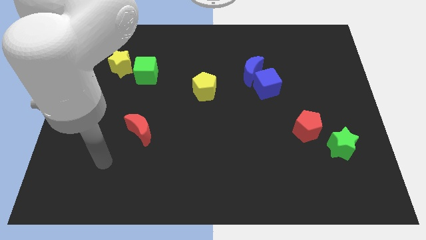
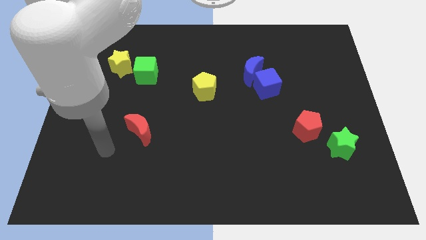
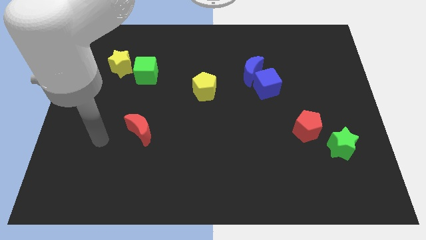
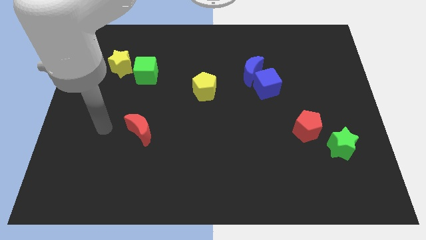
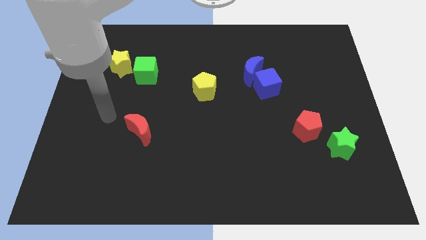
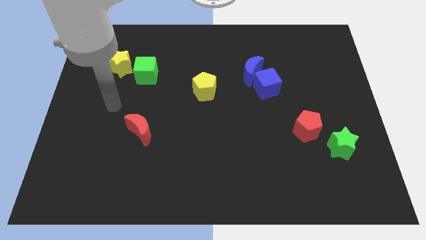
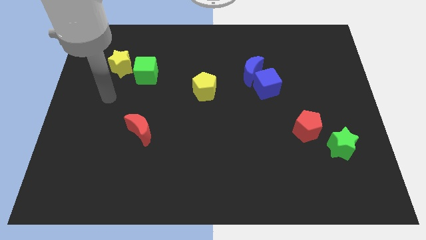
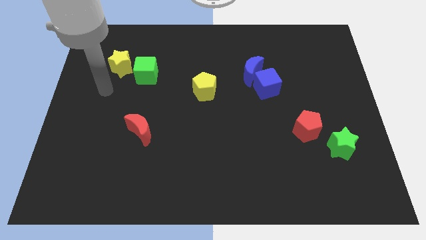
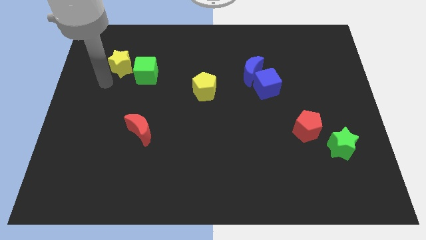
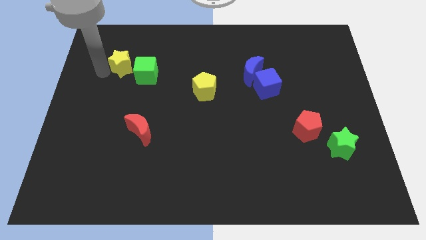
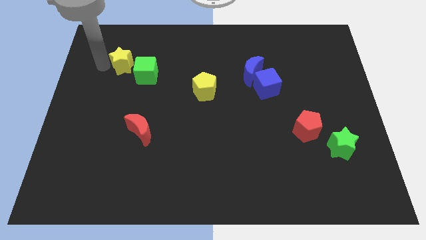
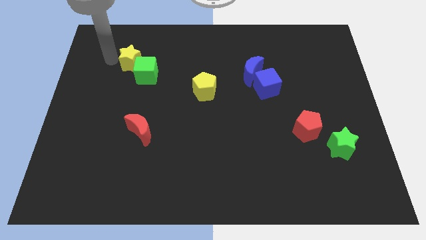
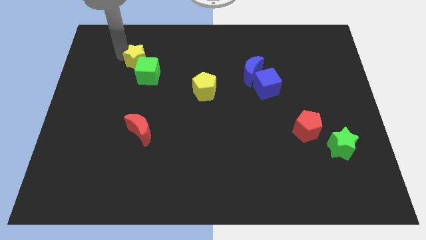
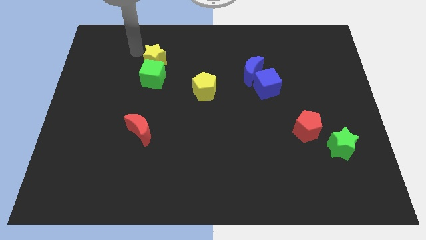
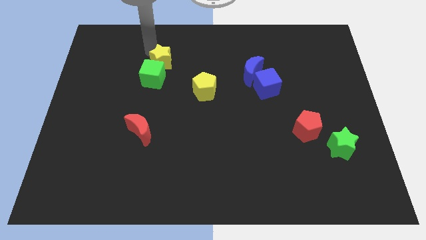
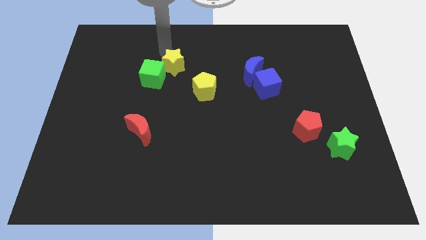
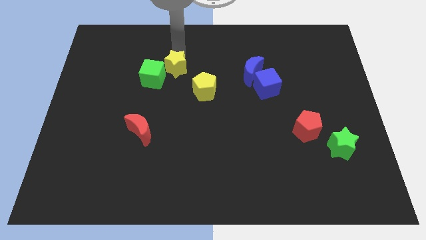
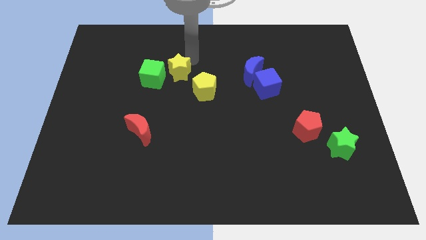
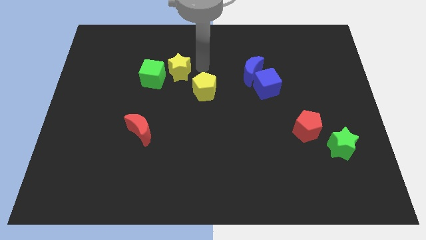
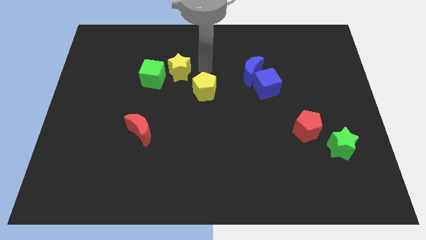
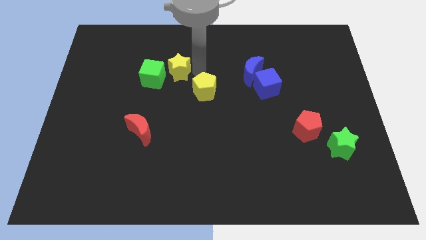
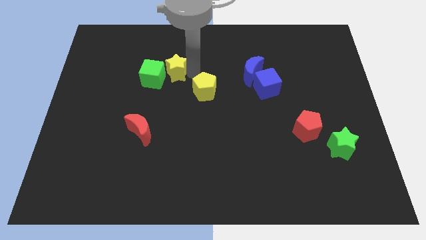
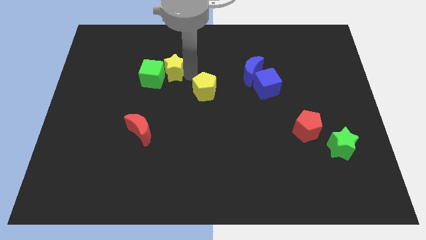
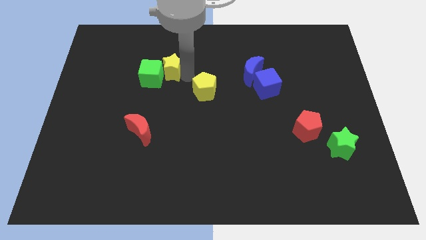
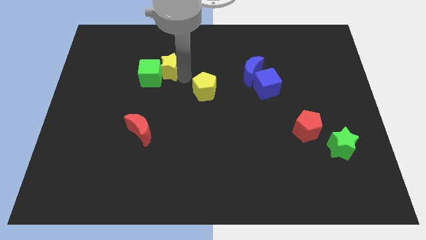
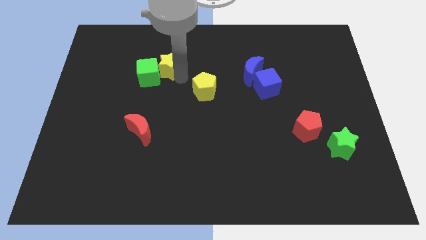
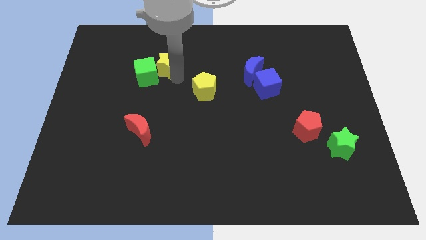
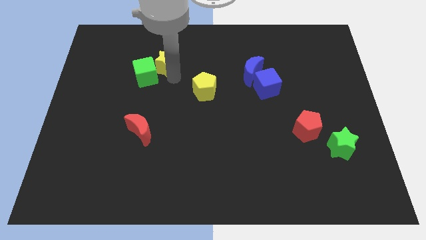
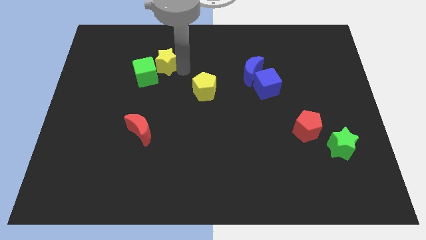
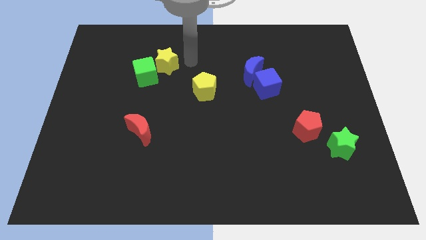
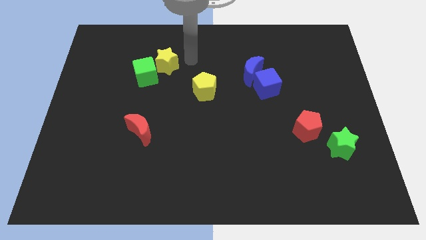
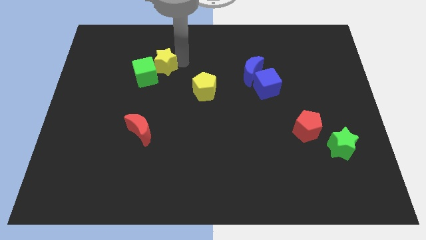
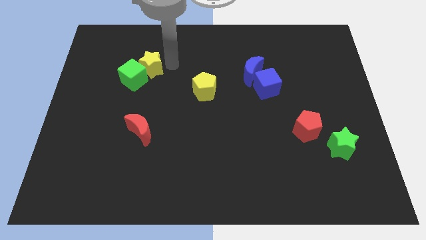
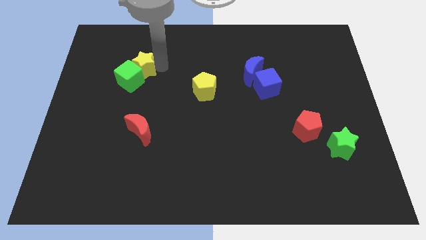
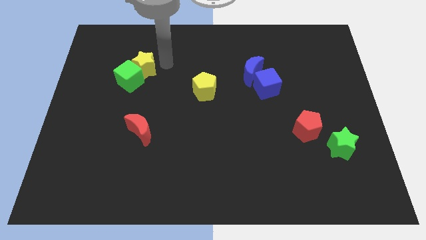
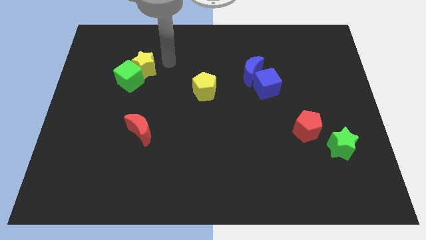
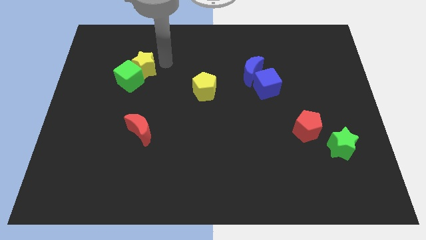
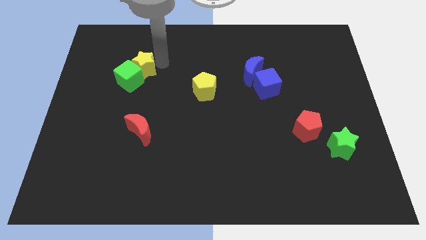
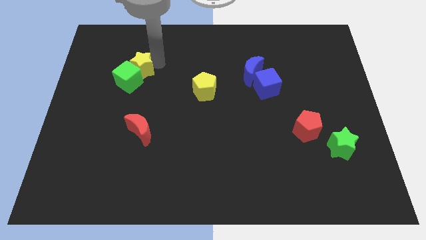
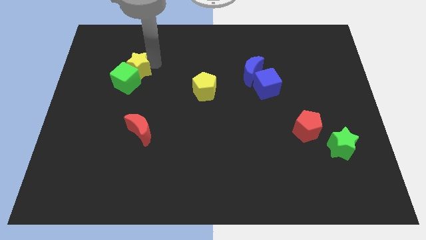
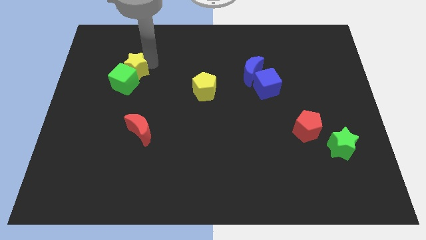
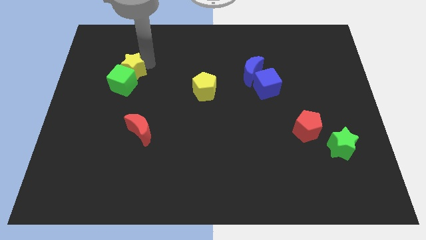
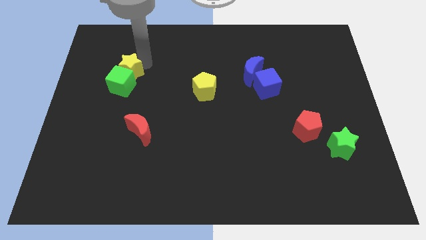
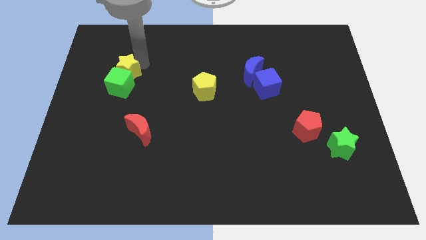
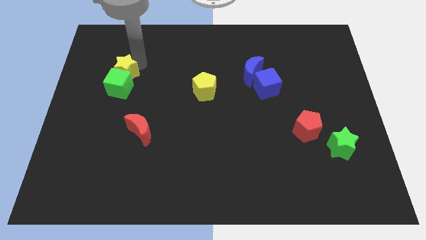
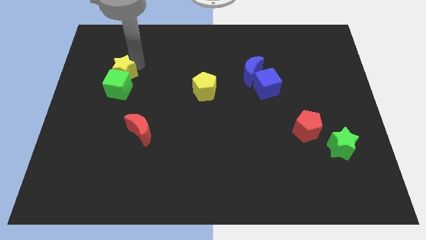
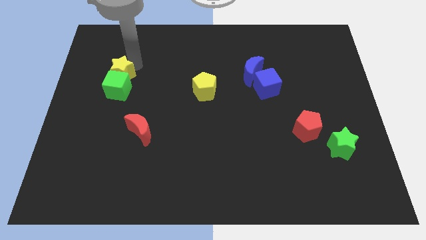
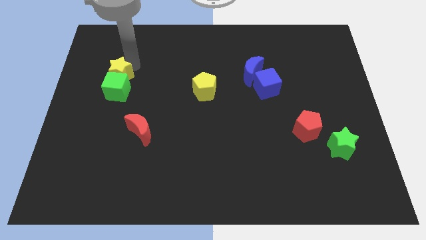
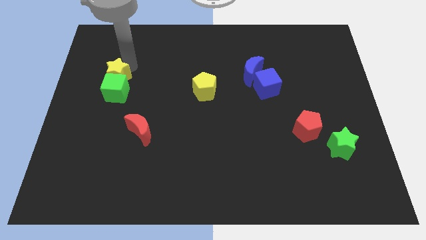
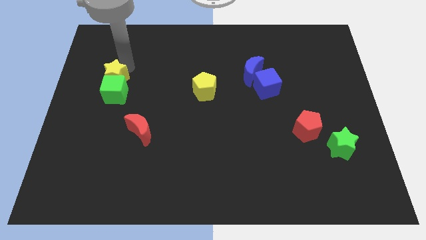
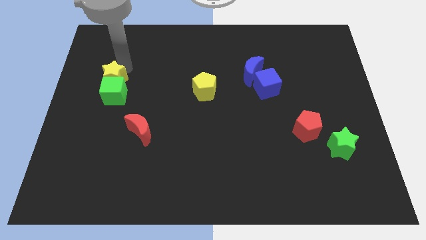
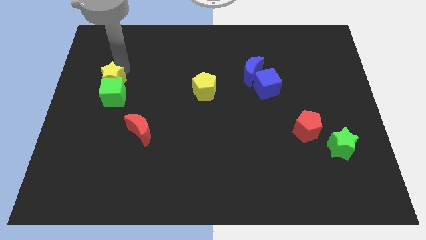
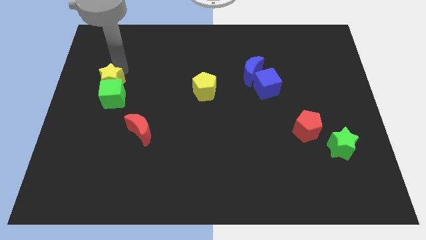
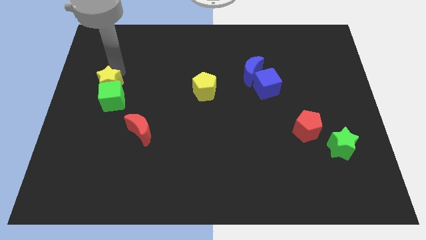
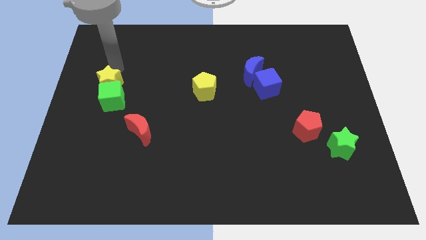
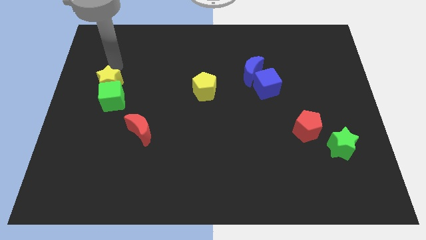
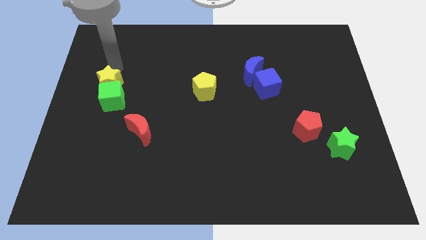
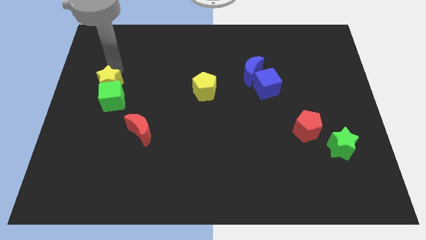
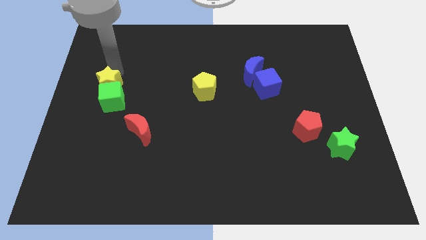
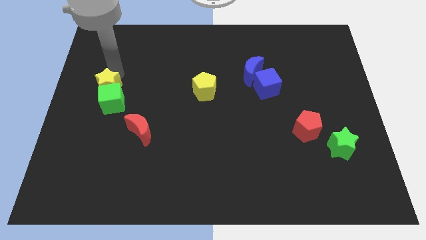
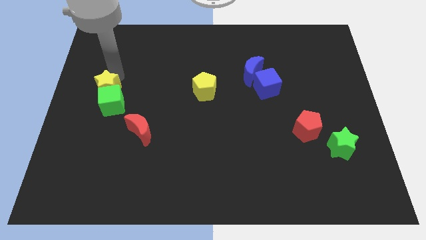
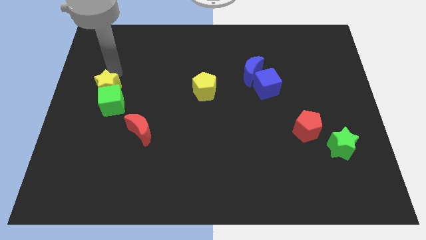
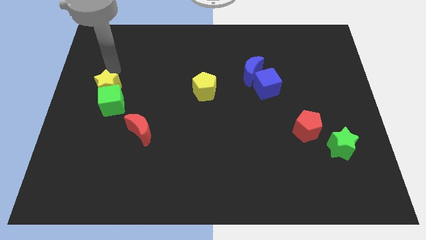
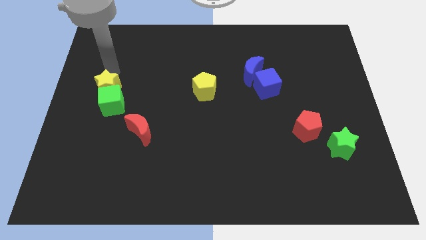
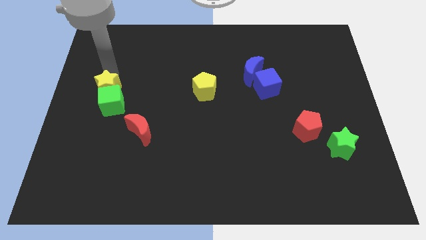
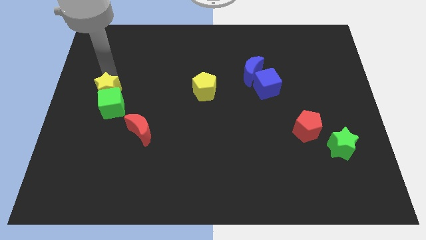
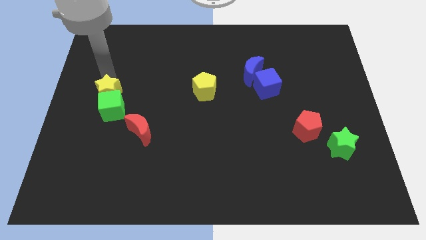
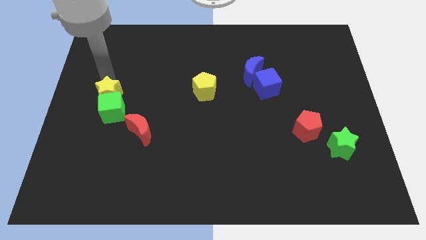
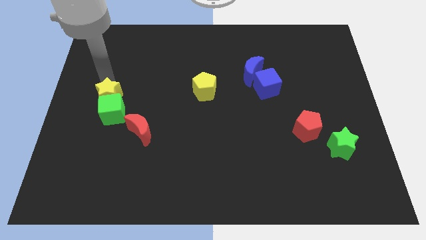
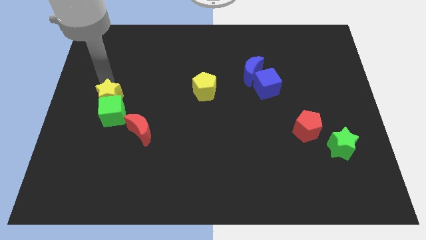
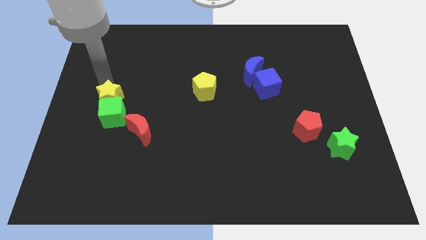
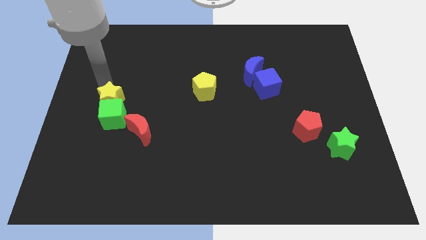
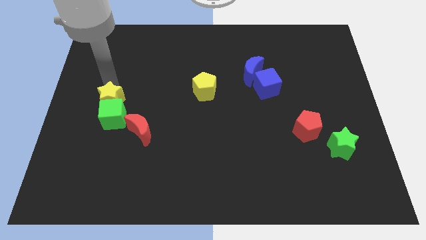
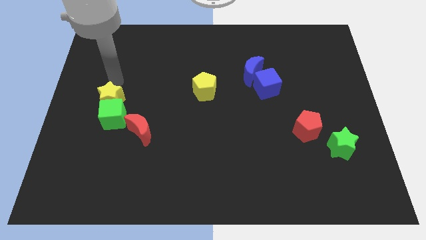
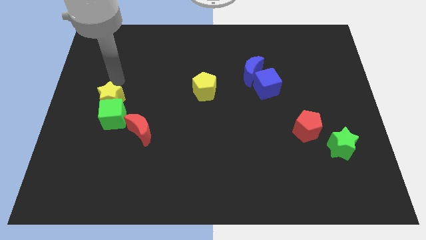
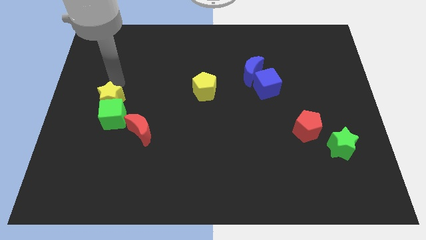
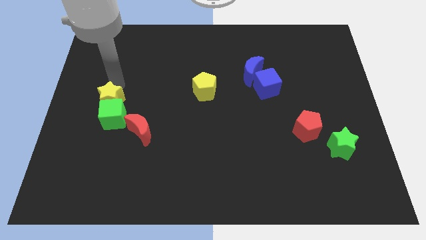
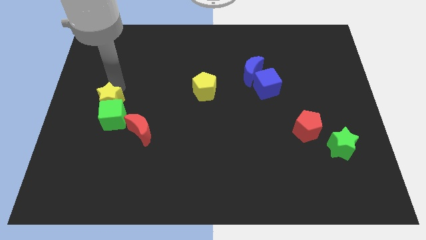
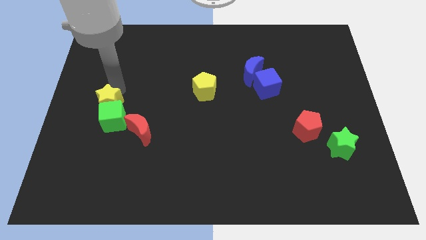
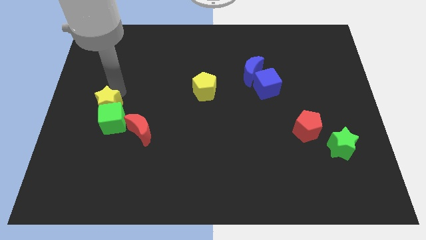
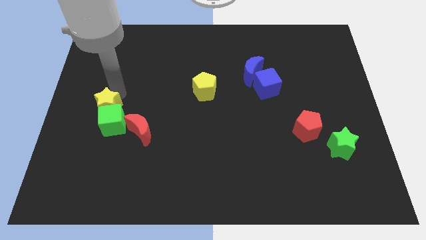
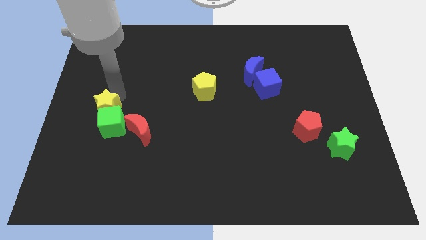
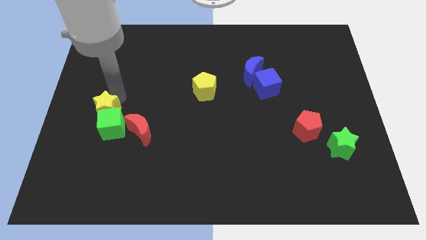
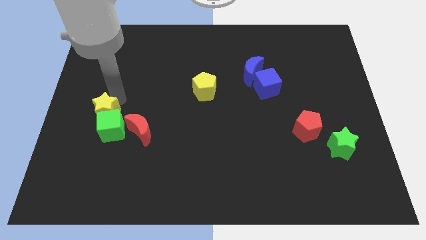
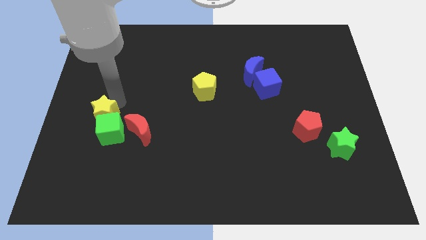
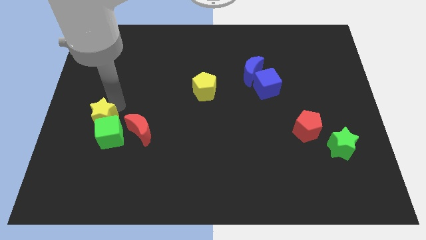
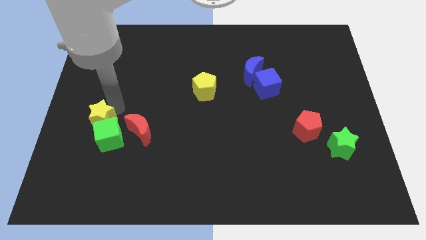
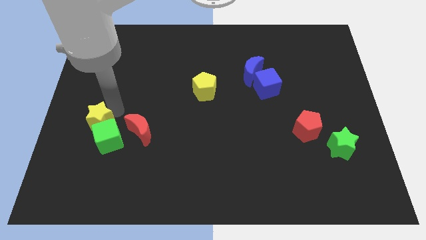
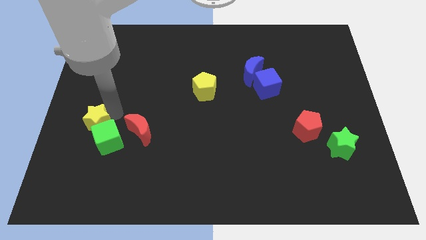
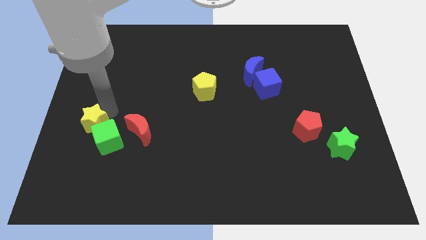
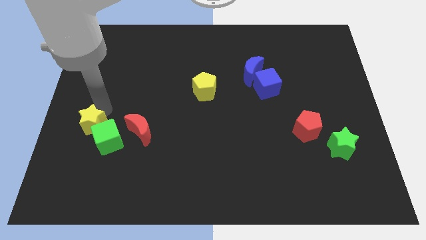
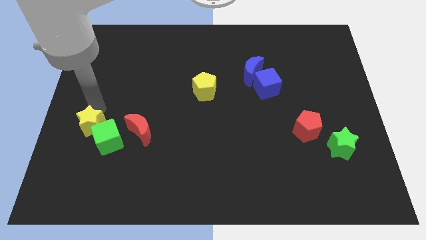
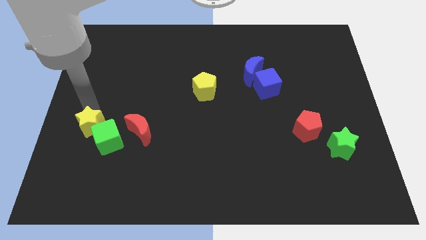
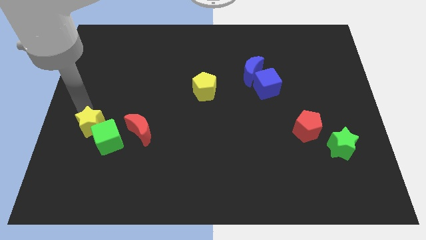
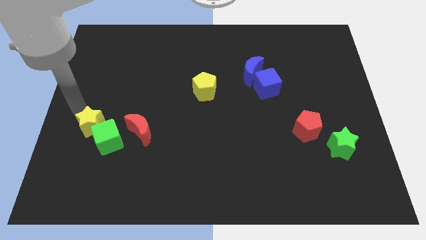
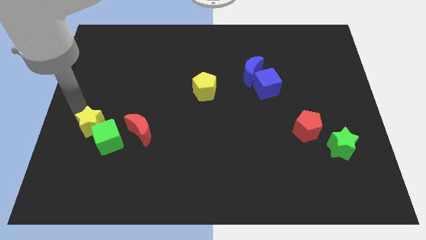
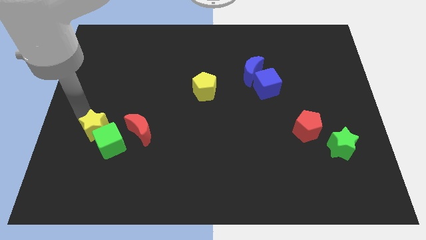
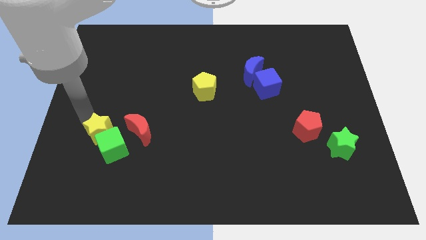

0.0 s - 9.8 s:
slide the yellow star down
